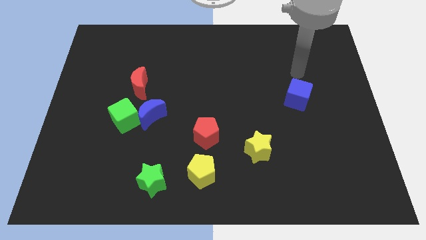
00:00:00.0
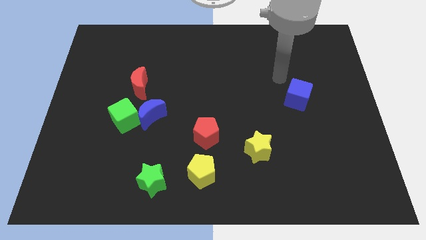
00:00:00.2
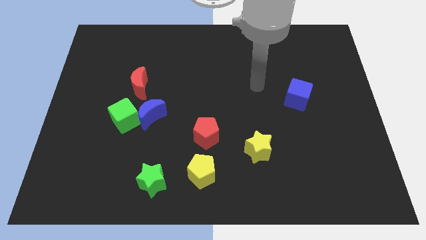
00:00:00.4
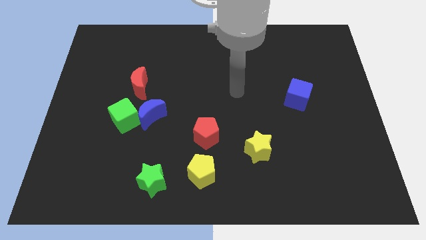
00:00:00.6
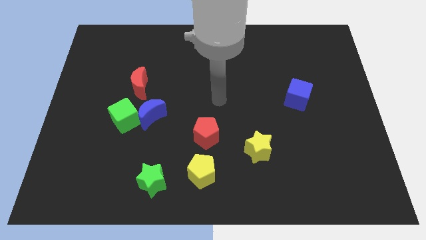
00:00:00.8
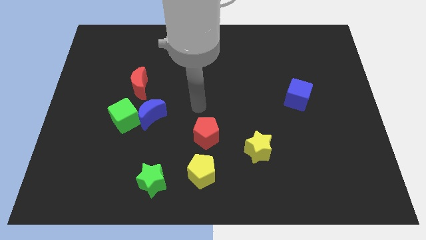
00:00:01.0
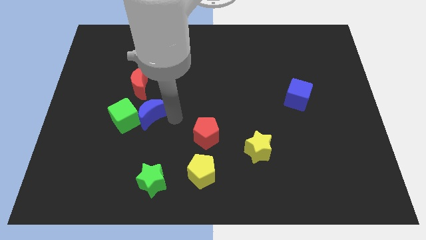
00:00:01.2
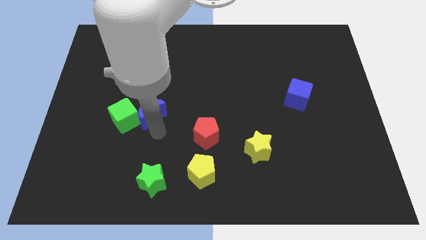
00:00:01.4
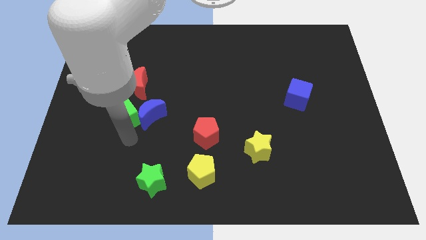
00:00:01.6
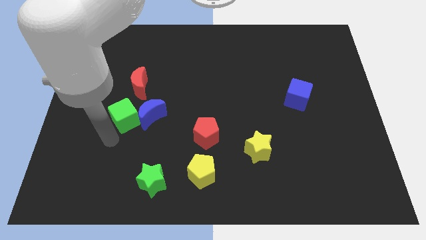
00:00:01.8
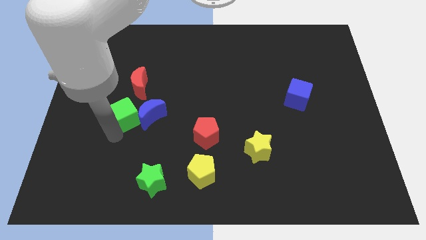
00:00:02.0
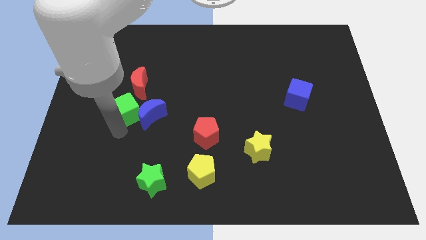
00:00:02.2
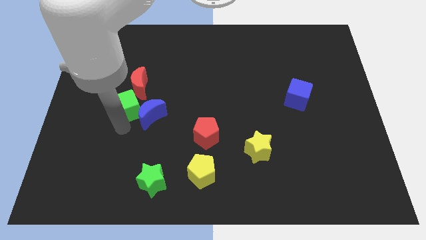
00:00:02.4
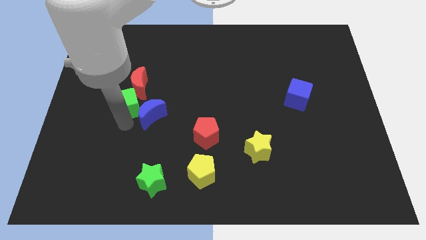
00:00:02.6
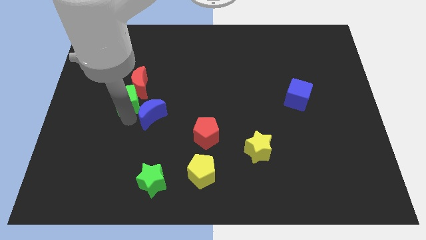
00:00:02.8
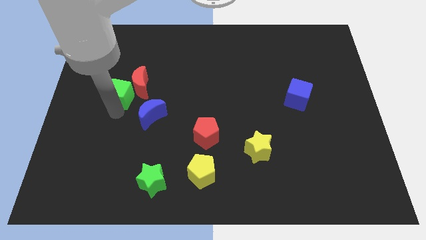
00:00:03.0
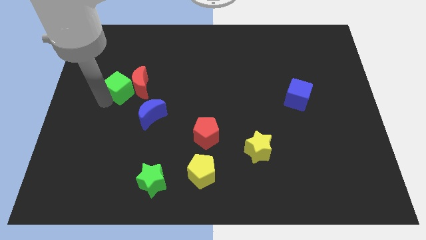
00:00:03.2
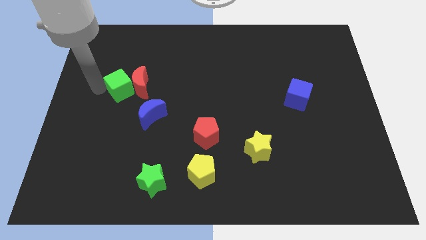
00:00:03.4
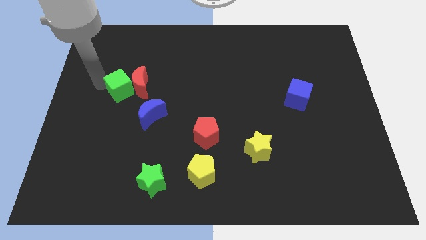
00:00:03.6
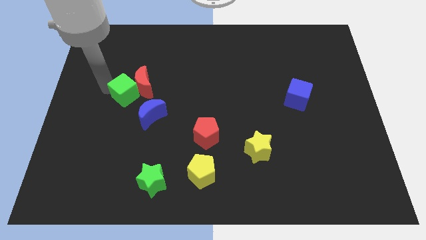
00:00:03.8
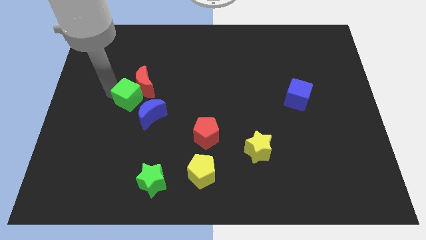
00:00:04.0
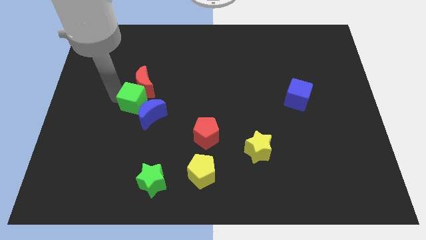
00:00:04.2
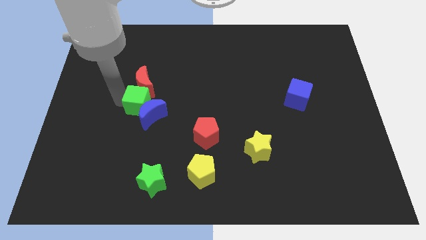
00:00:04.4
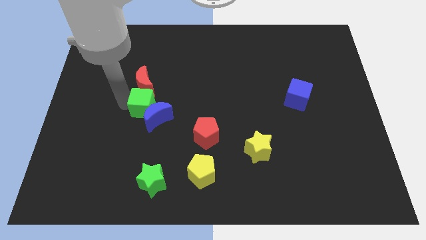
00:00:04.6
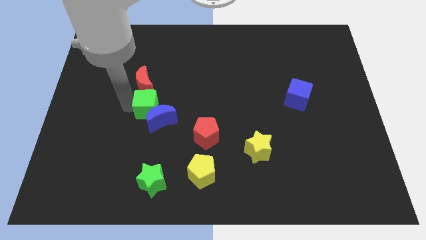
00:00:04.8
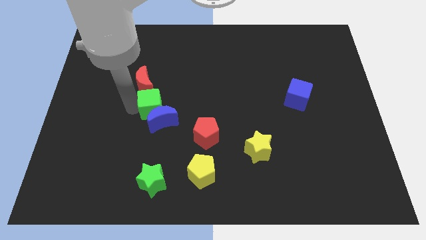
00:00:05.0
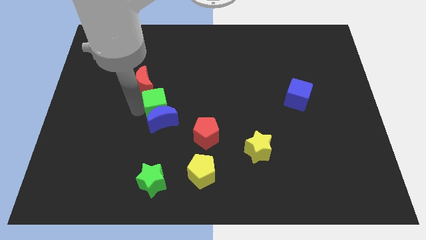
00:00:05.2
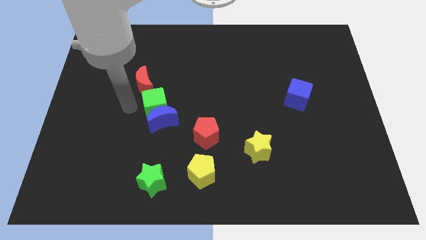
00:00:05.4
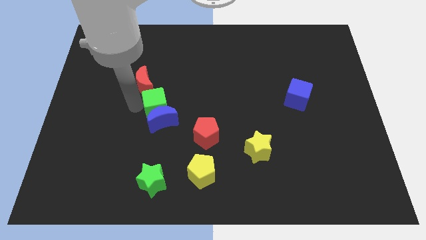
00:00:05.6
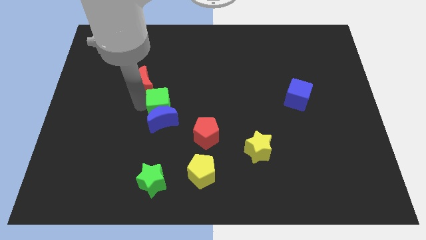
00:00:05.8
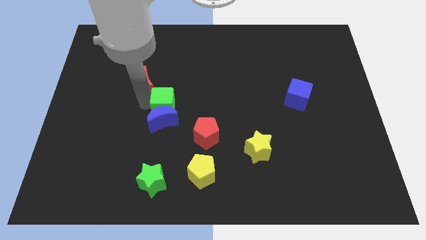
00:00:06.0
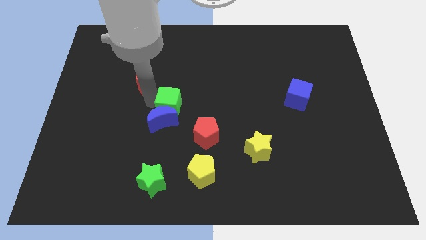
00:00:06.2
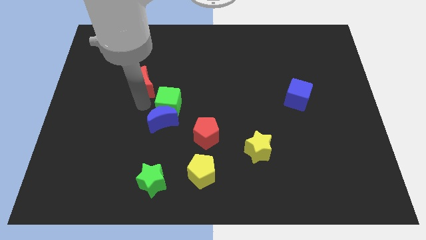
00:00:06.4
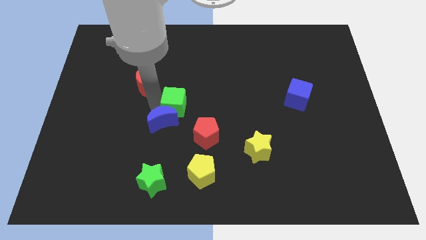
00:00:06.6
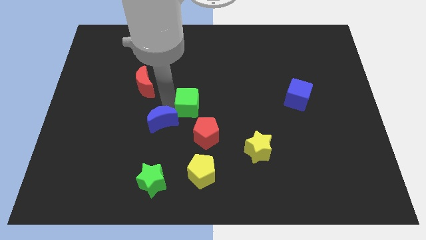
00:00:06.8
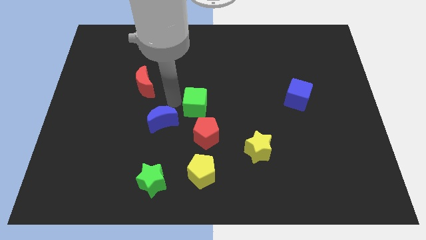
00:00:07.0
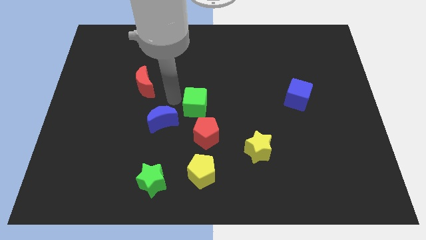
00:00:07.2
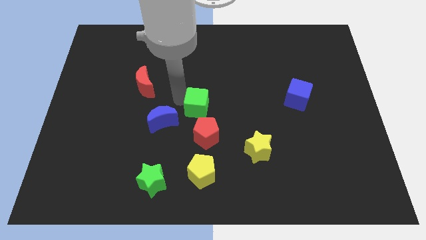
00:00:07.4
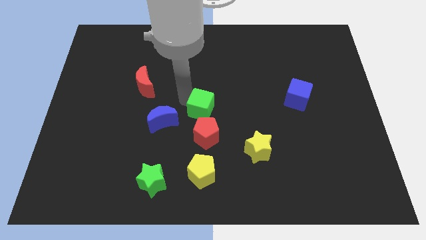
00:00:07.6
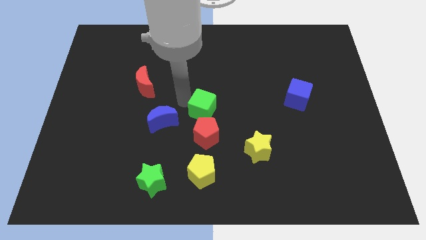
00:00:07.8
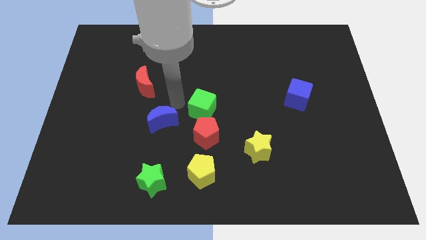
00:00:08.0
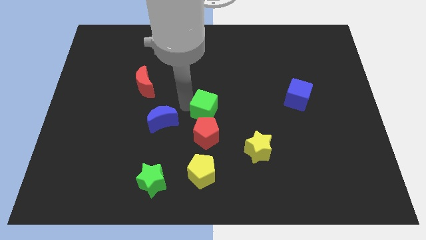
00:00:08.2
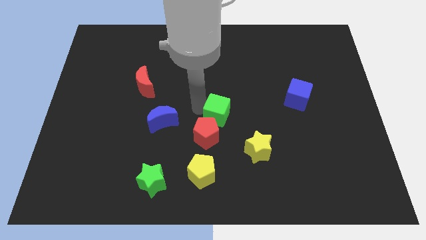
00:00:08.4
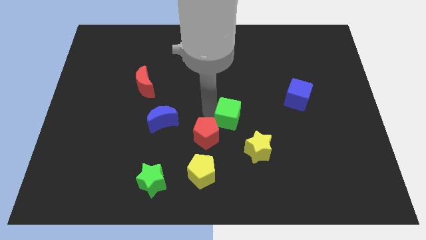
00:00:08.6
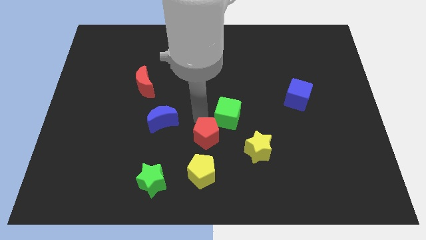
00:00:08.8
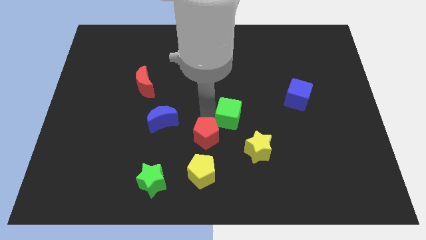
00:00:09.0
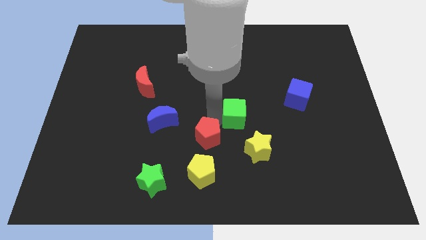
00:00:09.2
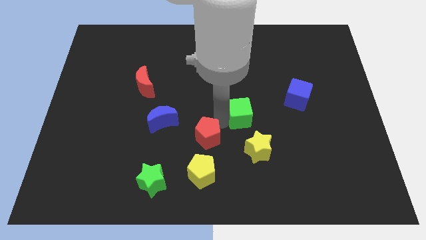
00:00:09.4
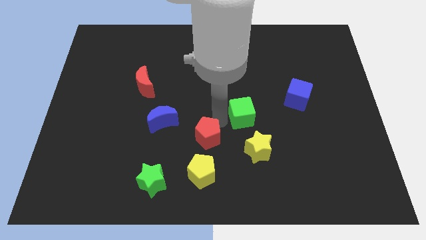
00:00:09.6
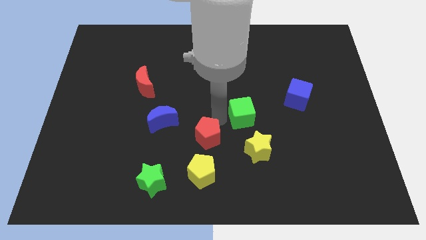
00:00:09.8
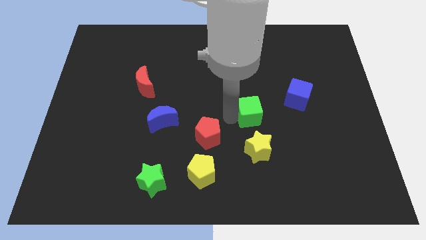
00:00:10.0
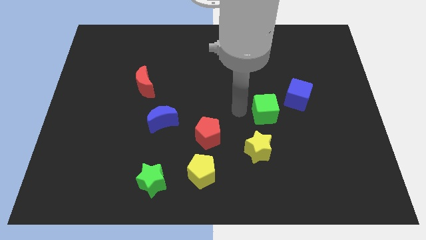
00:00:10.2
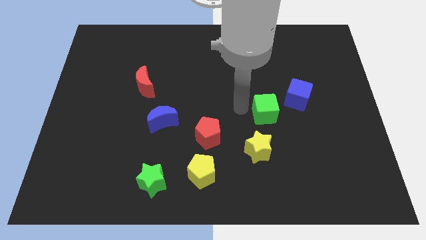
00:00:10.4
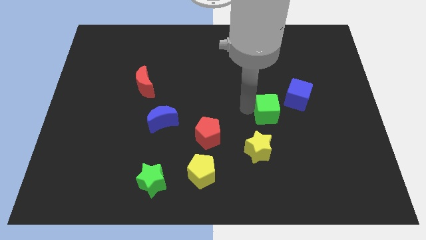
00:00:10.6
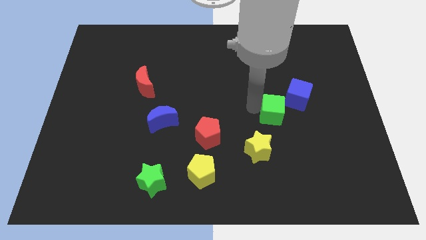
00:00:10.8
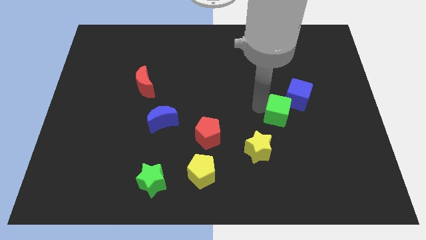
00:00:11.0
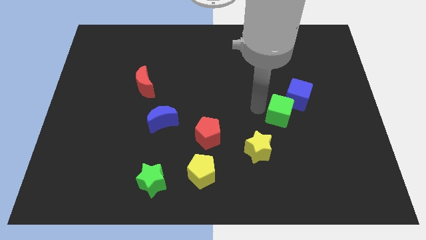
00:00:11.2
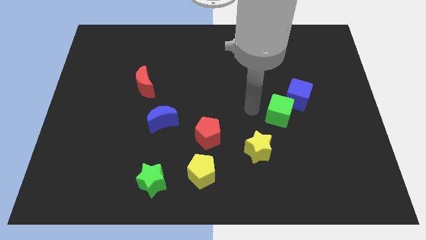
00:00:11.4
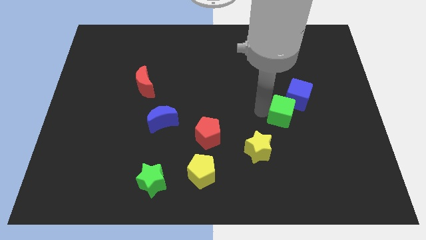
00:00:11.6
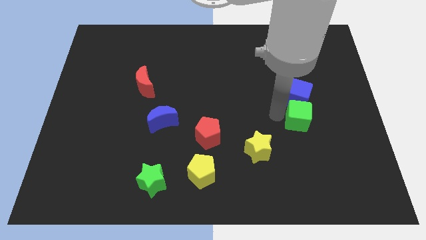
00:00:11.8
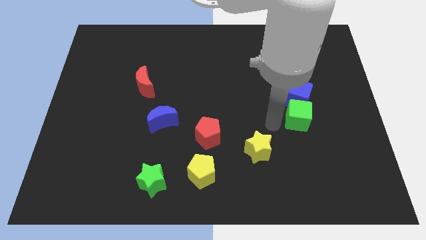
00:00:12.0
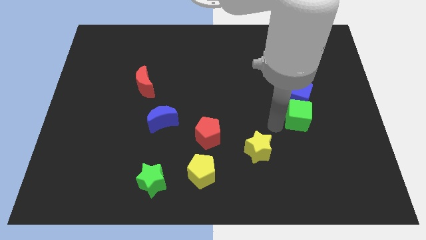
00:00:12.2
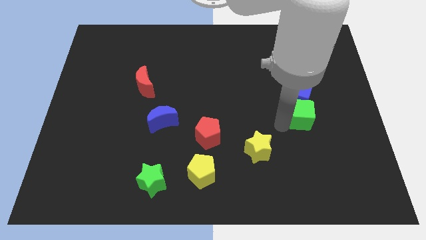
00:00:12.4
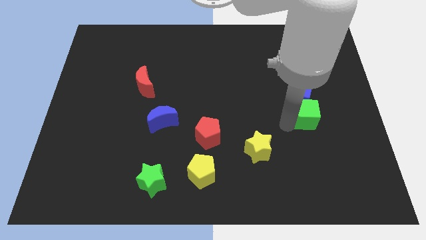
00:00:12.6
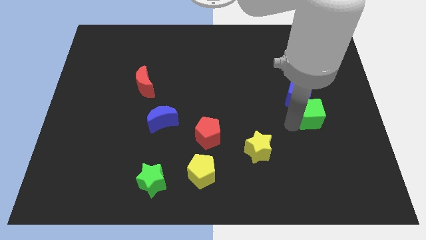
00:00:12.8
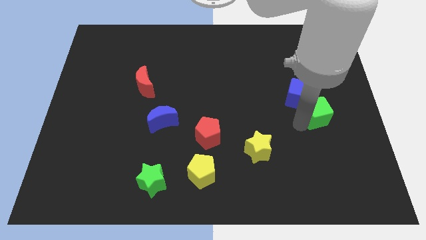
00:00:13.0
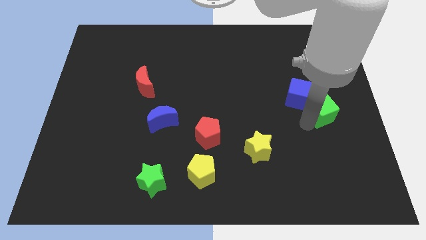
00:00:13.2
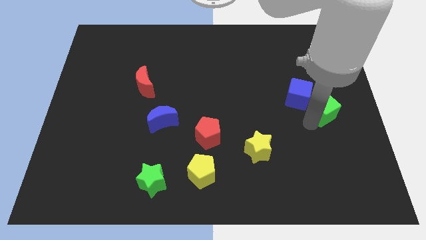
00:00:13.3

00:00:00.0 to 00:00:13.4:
put the green cube to the right side of the board
